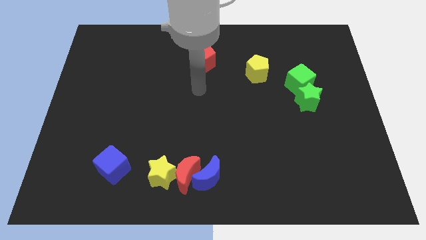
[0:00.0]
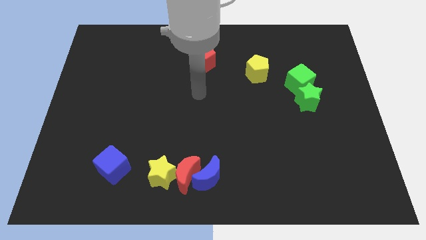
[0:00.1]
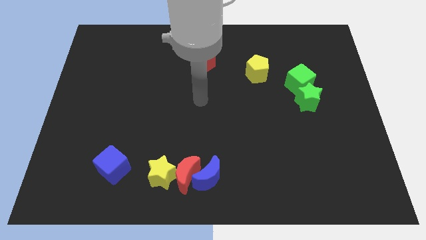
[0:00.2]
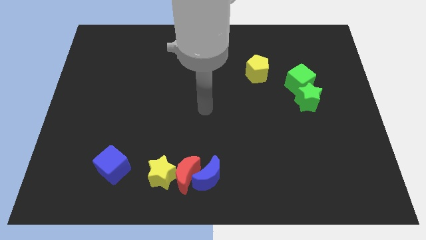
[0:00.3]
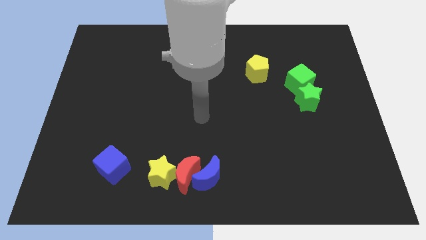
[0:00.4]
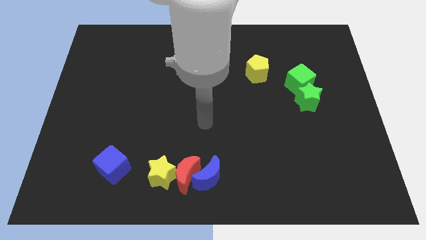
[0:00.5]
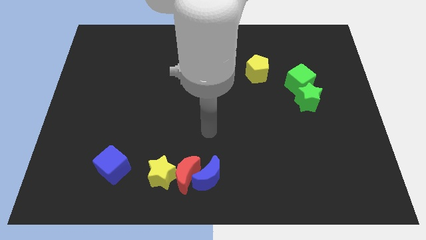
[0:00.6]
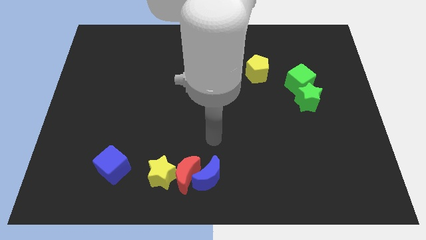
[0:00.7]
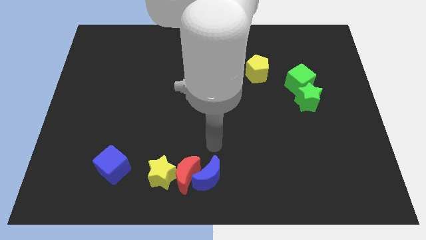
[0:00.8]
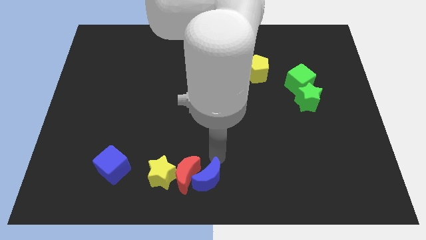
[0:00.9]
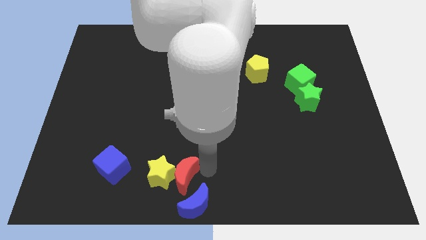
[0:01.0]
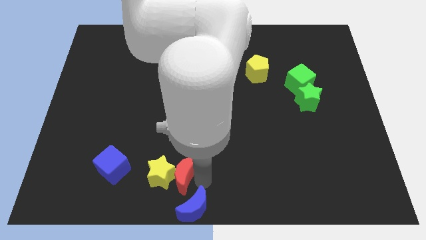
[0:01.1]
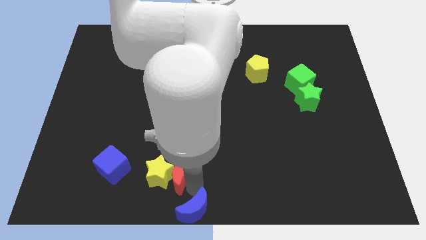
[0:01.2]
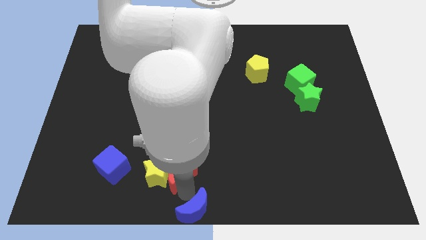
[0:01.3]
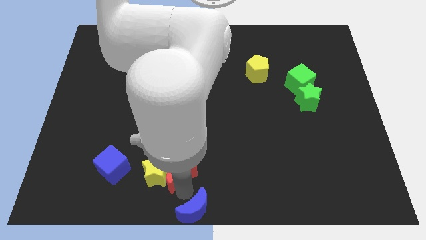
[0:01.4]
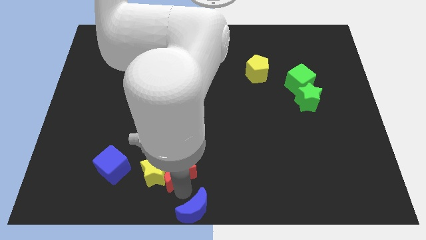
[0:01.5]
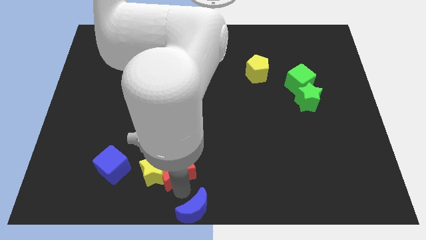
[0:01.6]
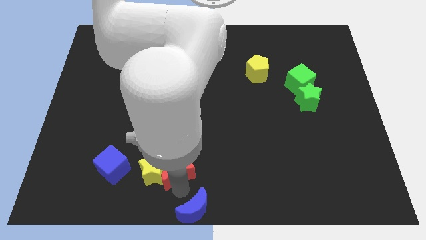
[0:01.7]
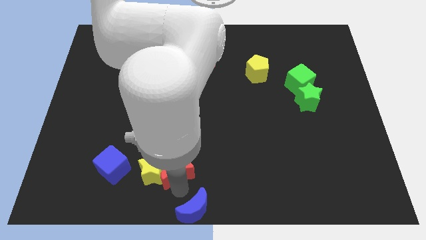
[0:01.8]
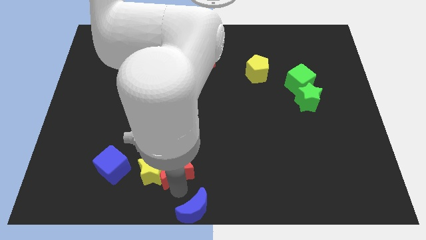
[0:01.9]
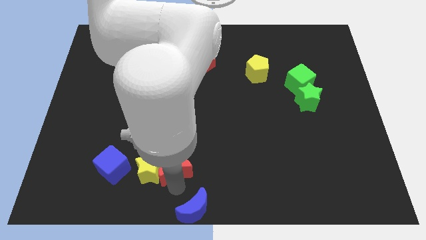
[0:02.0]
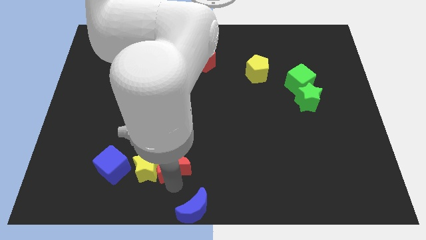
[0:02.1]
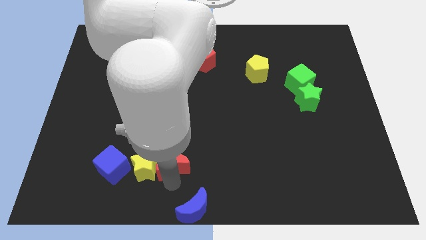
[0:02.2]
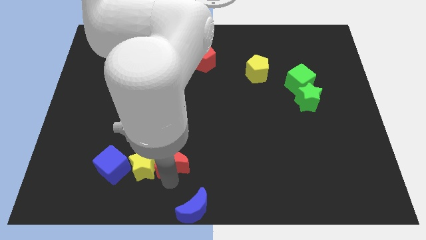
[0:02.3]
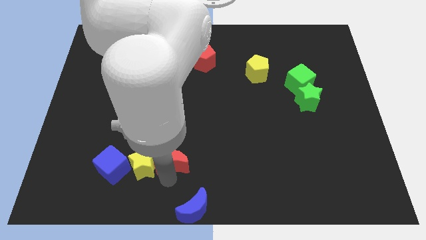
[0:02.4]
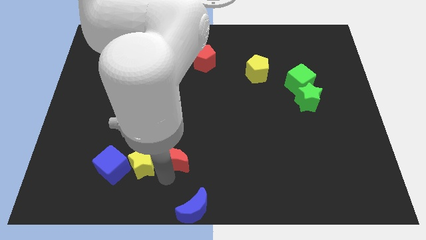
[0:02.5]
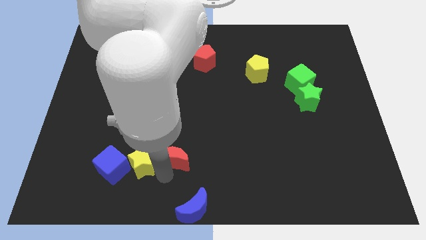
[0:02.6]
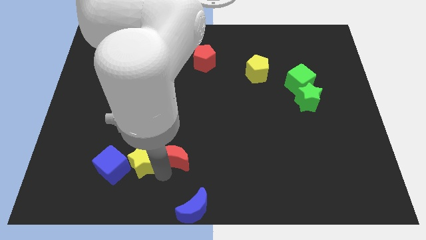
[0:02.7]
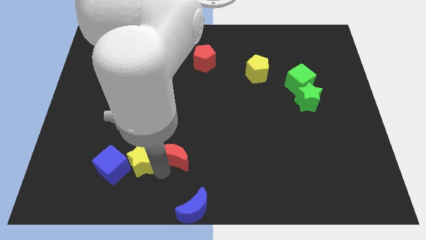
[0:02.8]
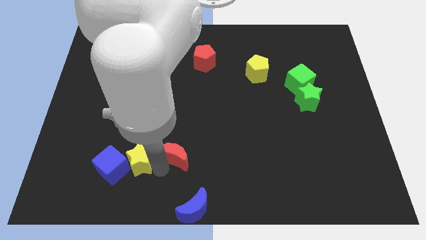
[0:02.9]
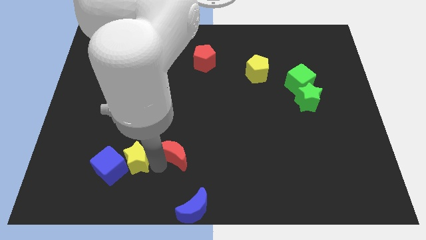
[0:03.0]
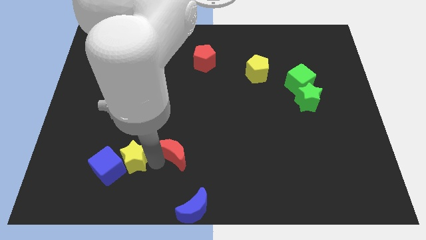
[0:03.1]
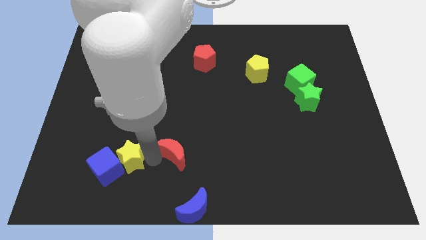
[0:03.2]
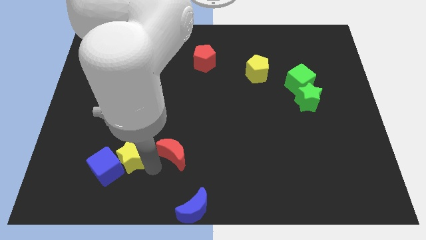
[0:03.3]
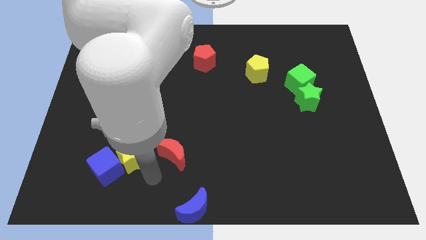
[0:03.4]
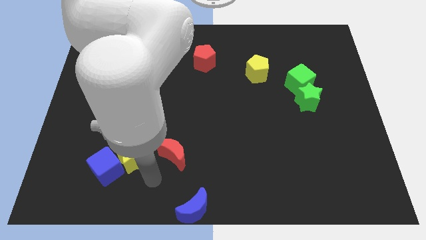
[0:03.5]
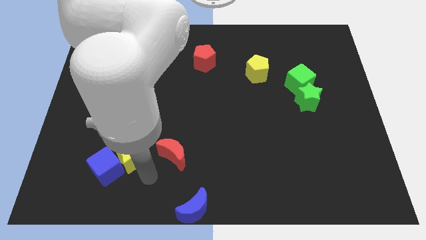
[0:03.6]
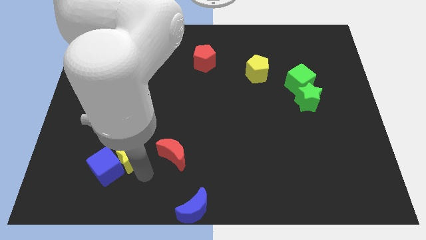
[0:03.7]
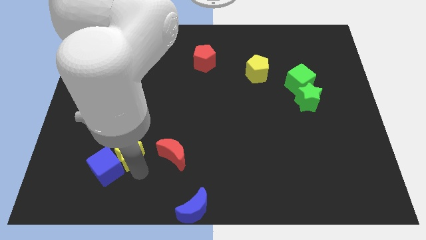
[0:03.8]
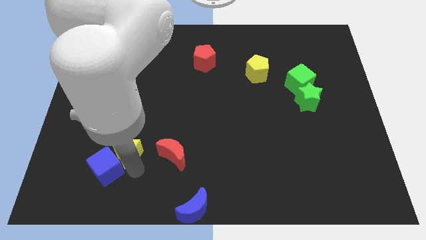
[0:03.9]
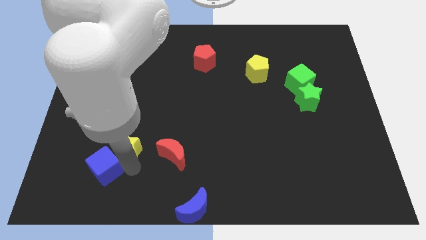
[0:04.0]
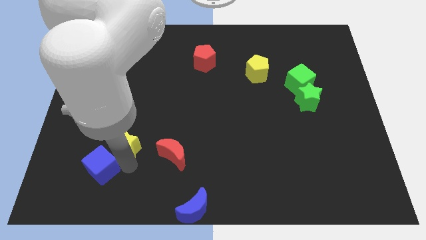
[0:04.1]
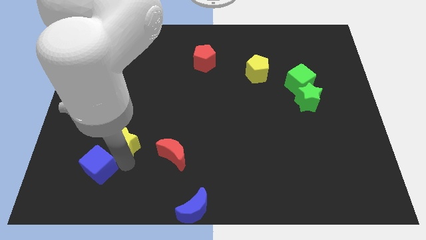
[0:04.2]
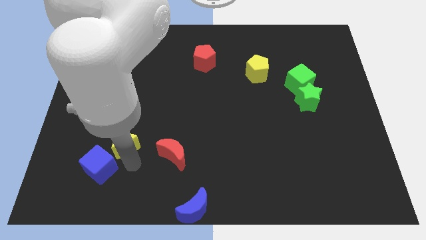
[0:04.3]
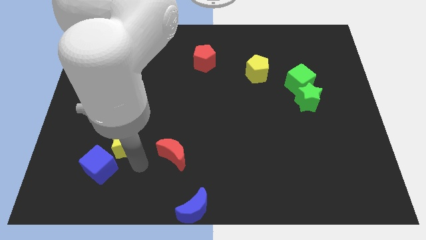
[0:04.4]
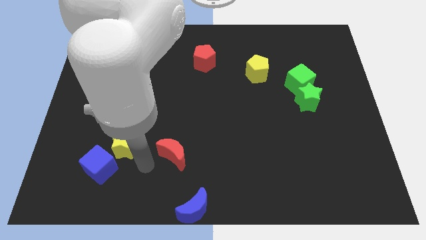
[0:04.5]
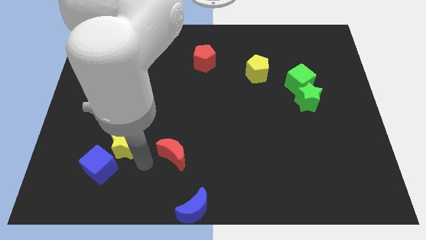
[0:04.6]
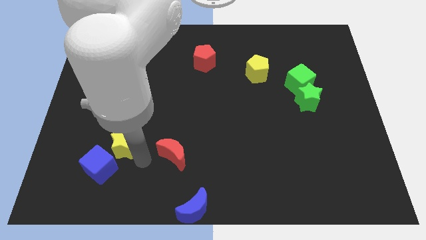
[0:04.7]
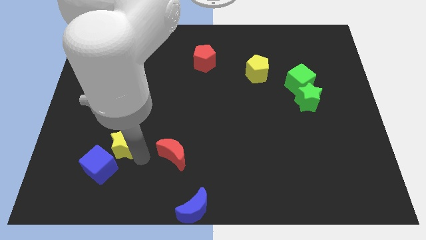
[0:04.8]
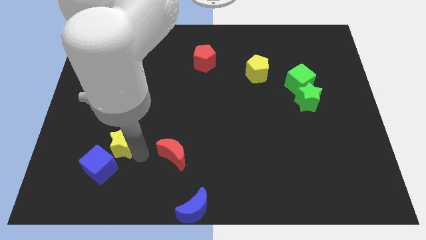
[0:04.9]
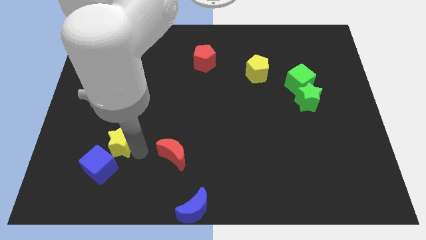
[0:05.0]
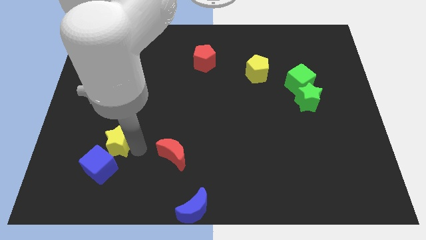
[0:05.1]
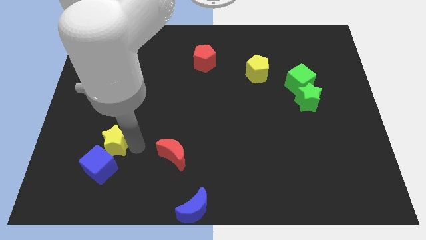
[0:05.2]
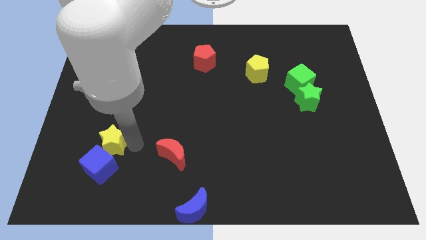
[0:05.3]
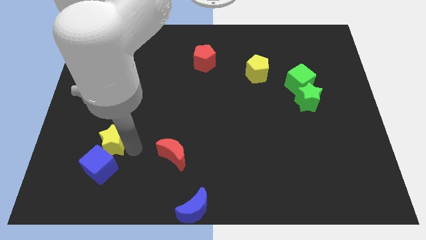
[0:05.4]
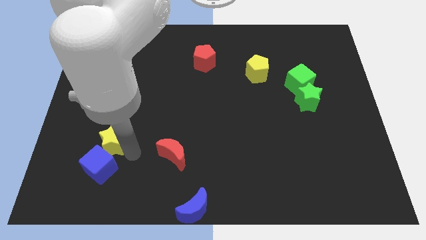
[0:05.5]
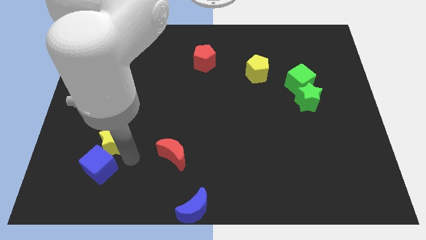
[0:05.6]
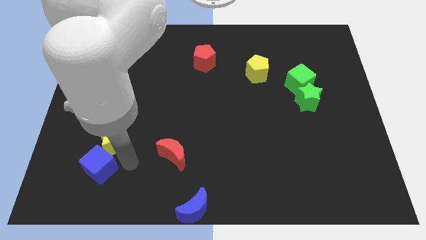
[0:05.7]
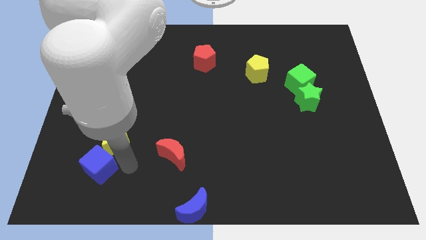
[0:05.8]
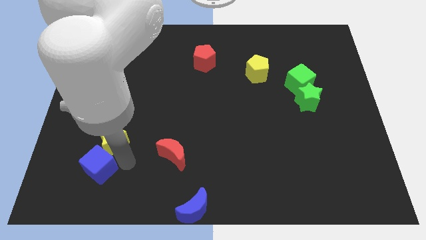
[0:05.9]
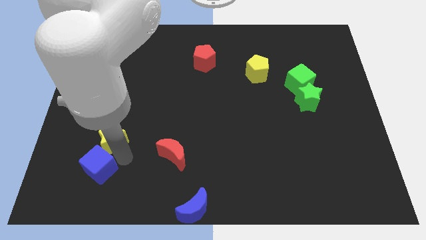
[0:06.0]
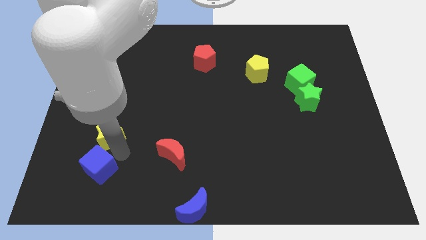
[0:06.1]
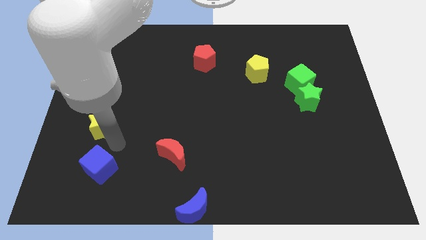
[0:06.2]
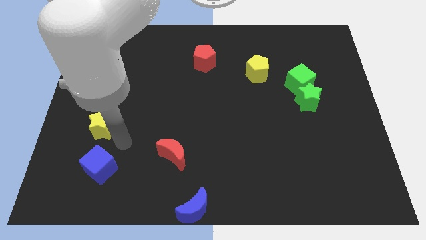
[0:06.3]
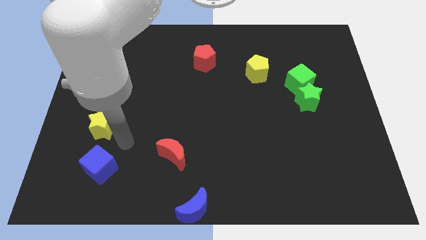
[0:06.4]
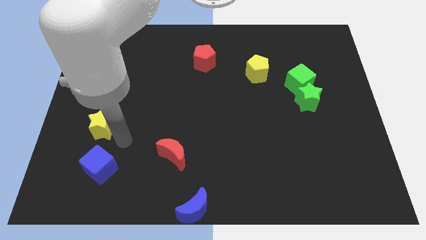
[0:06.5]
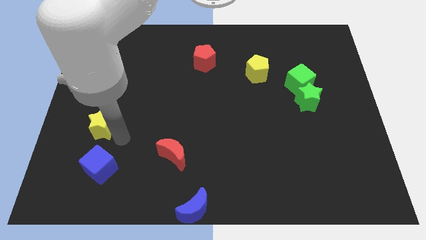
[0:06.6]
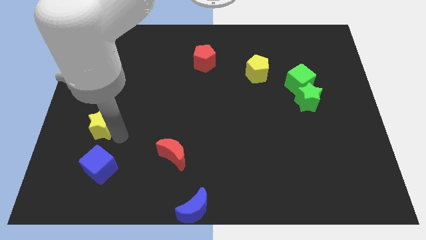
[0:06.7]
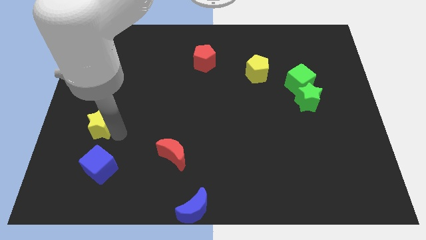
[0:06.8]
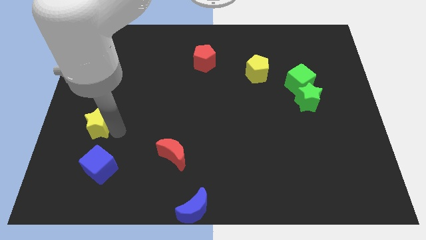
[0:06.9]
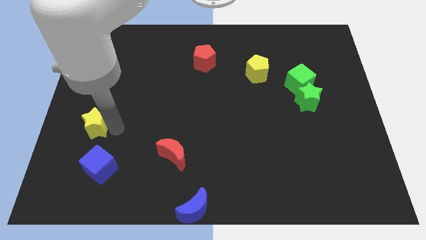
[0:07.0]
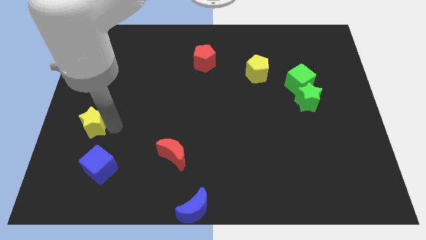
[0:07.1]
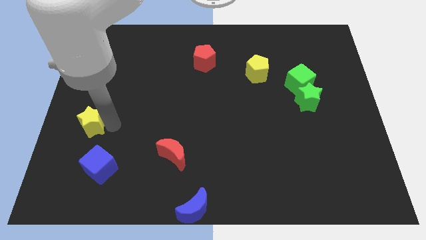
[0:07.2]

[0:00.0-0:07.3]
slide the yellow star to the left side of the board

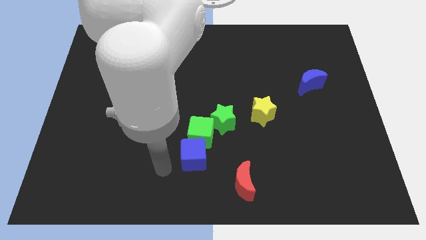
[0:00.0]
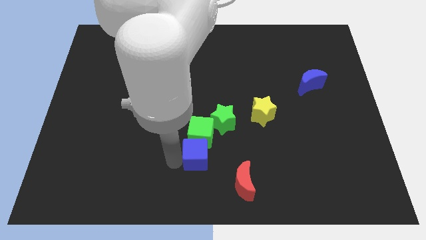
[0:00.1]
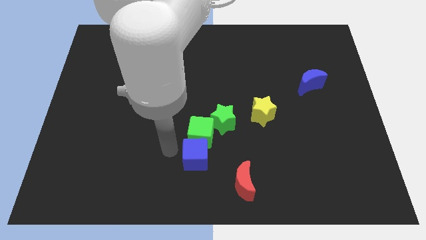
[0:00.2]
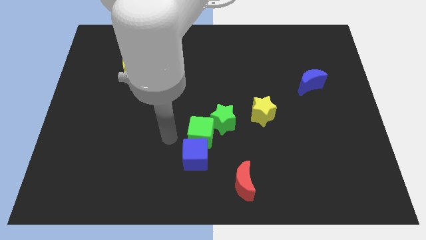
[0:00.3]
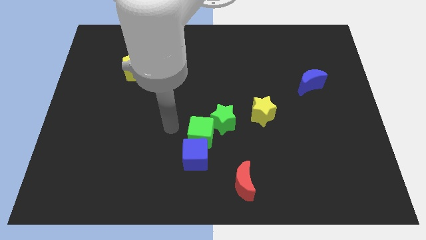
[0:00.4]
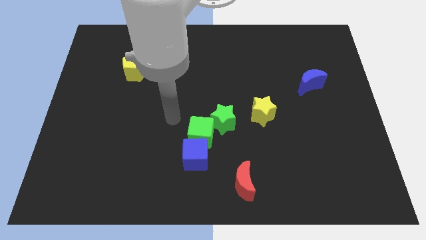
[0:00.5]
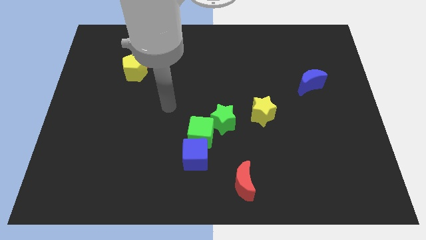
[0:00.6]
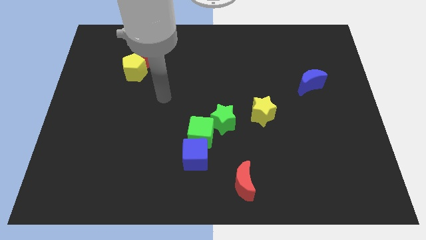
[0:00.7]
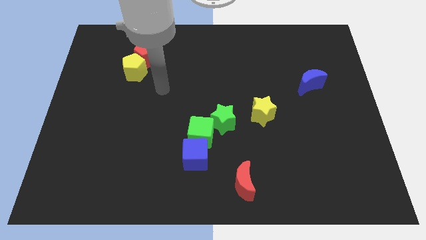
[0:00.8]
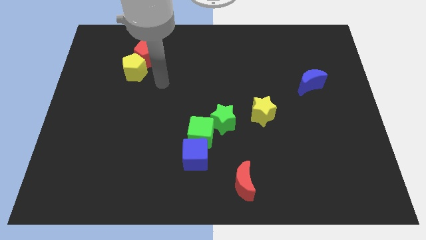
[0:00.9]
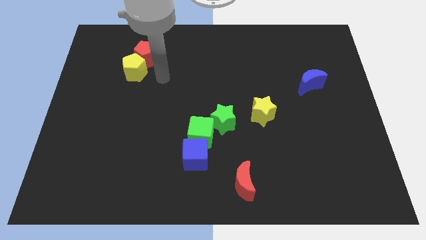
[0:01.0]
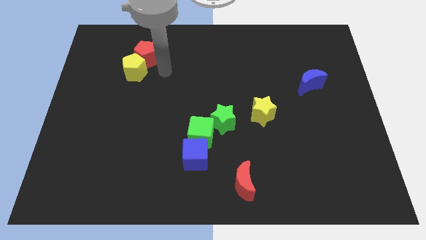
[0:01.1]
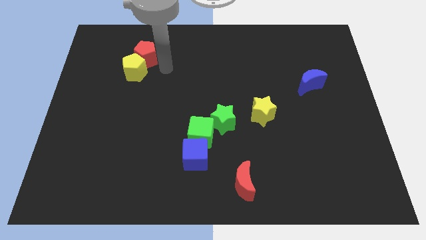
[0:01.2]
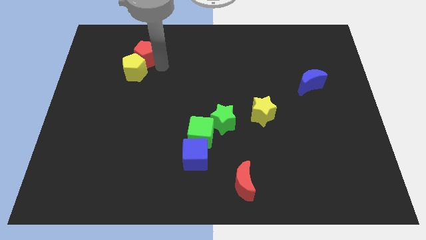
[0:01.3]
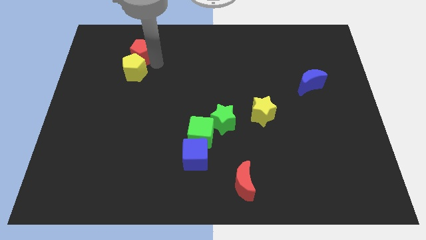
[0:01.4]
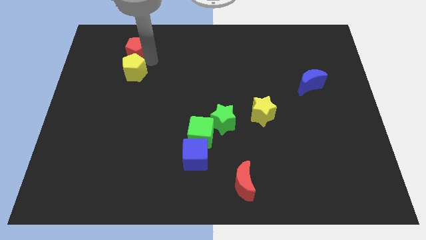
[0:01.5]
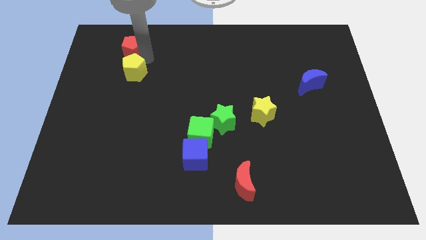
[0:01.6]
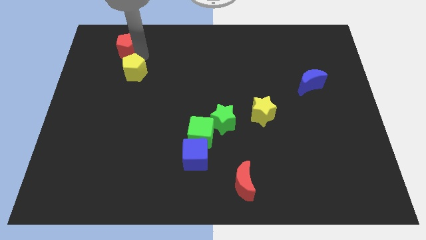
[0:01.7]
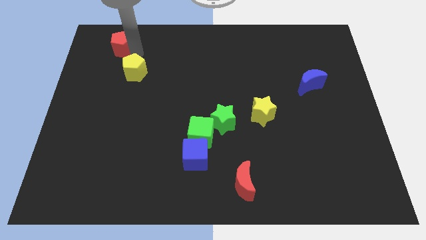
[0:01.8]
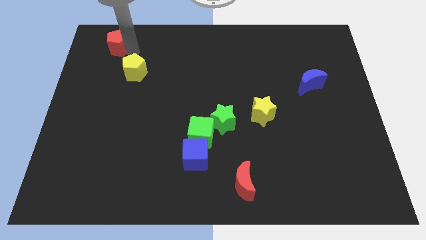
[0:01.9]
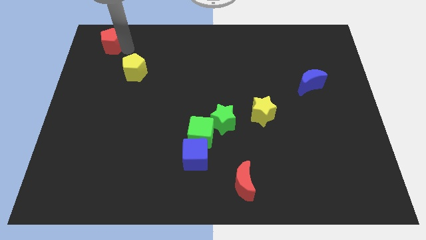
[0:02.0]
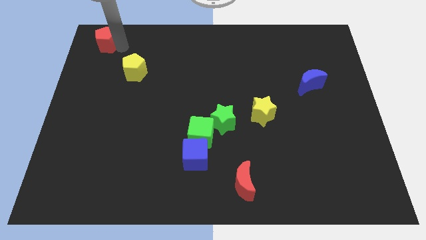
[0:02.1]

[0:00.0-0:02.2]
put the red pentagon to the top left
